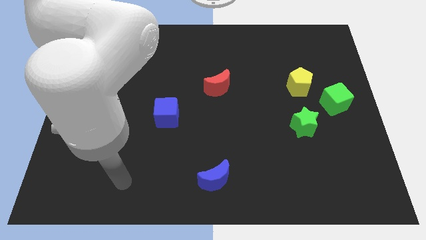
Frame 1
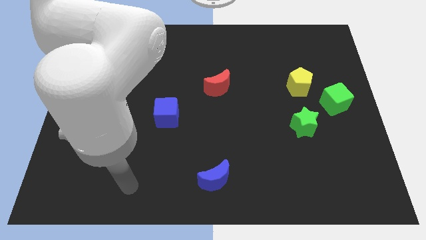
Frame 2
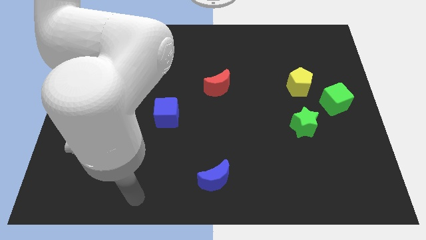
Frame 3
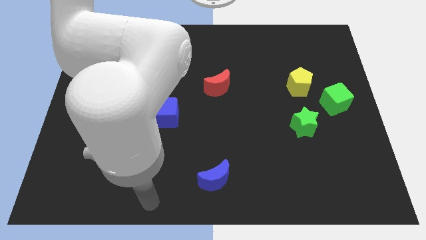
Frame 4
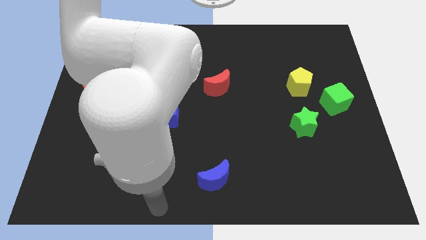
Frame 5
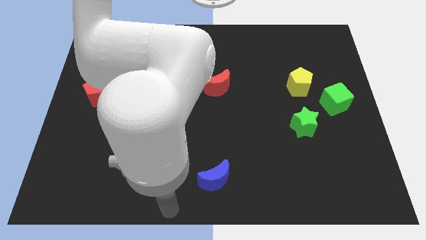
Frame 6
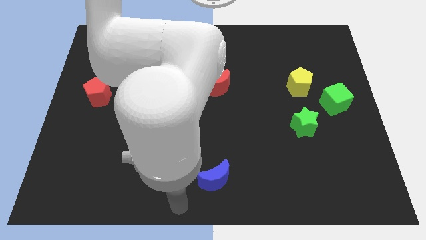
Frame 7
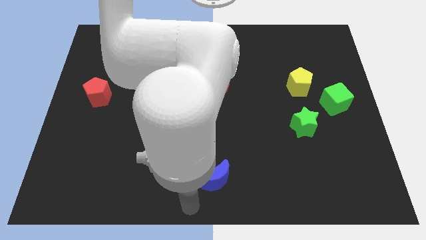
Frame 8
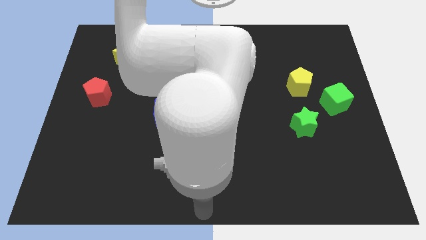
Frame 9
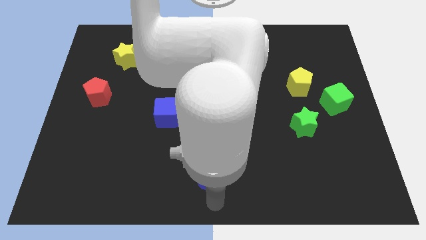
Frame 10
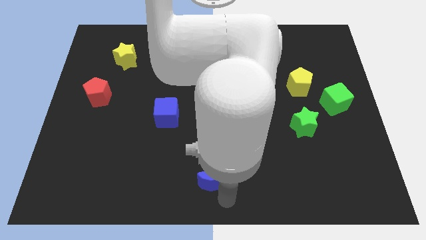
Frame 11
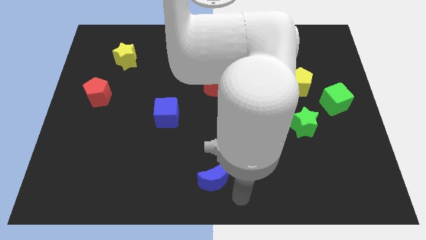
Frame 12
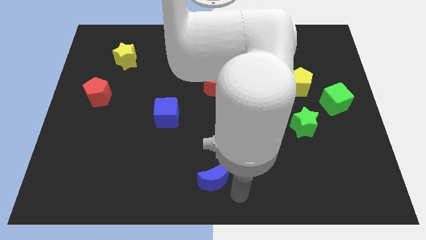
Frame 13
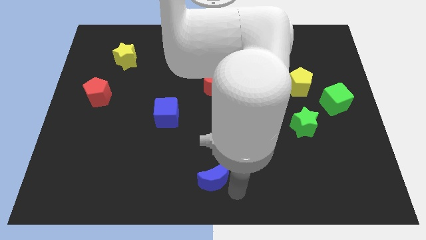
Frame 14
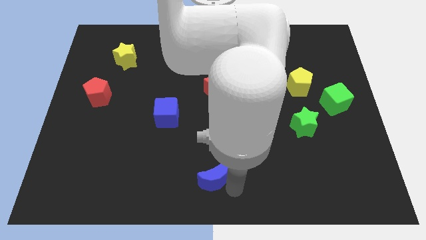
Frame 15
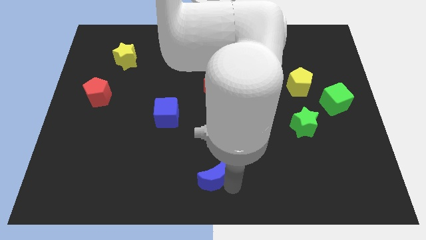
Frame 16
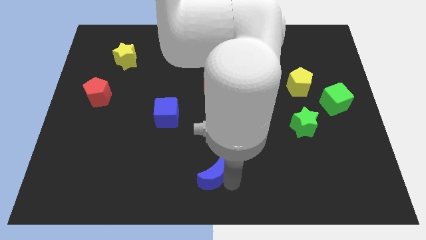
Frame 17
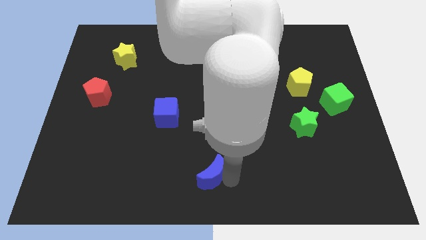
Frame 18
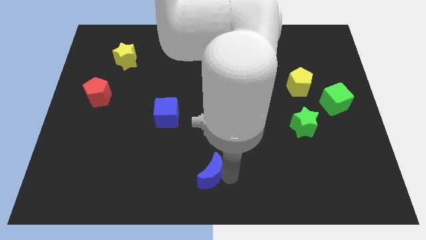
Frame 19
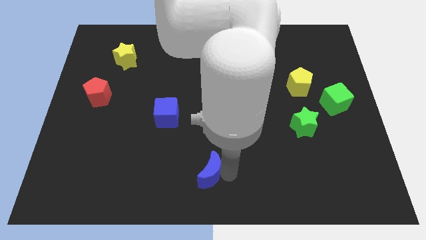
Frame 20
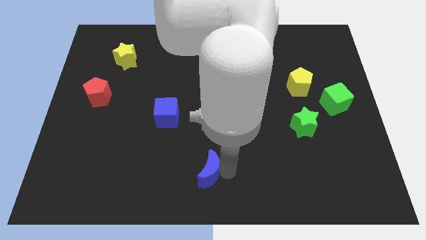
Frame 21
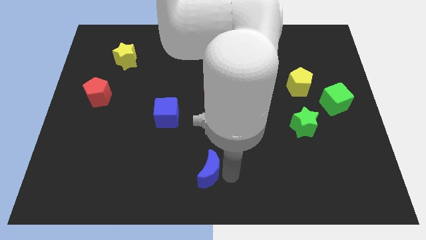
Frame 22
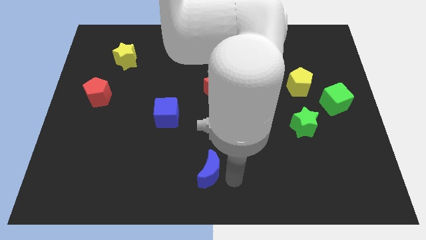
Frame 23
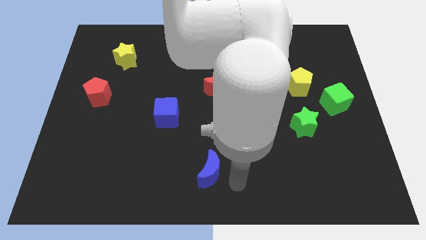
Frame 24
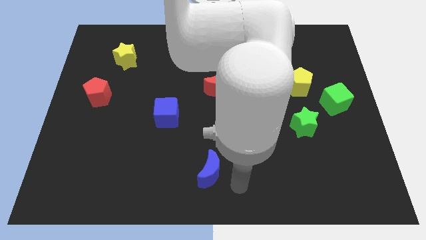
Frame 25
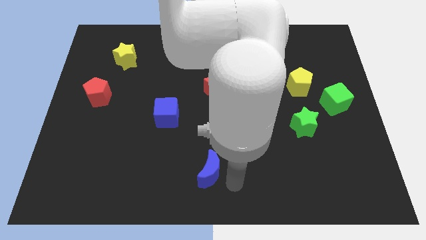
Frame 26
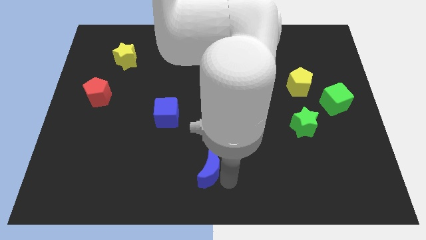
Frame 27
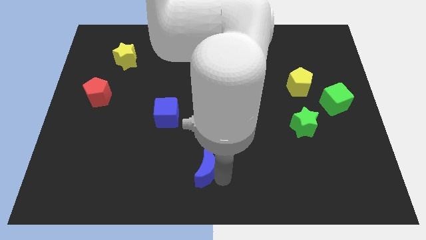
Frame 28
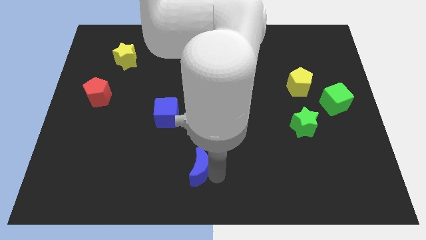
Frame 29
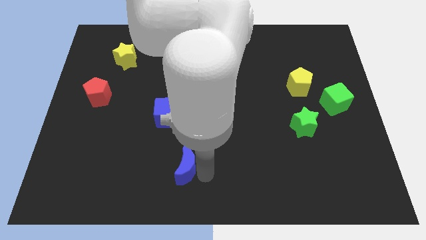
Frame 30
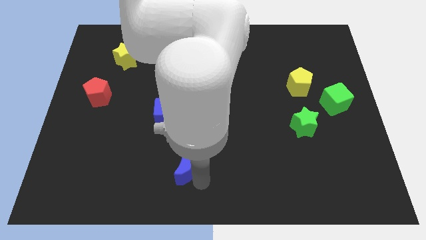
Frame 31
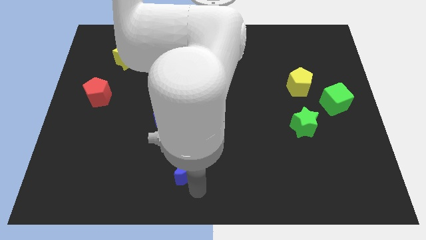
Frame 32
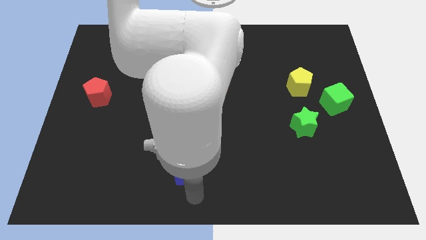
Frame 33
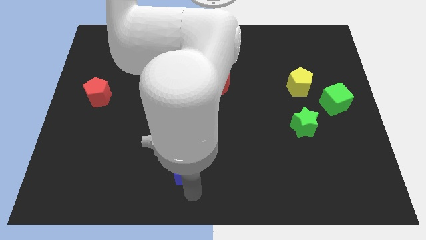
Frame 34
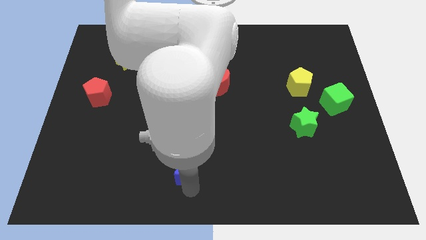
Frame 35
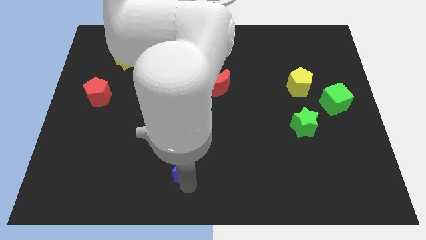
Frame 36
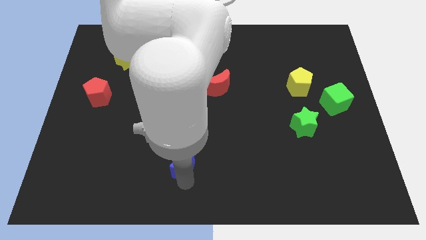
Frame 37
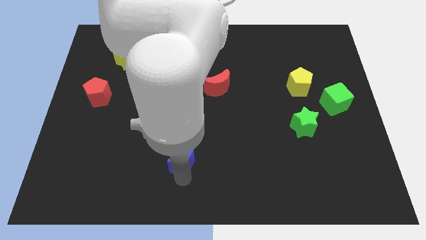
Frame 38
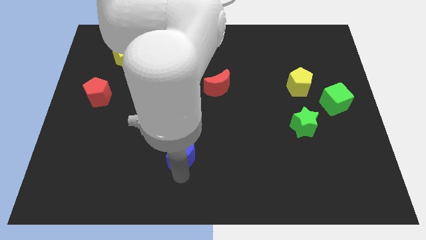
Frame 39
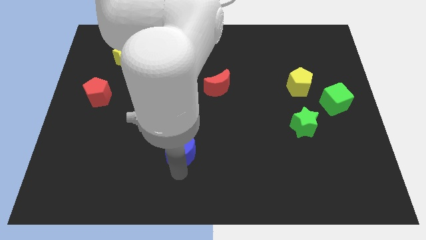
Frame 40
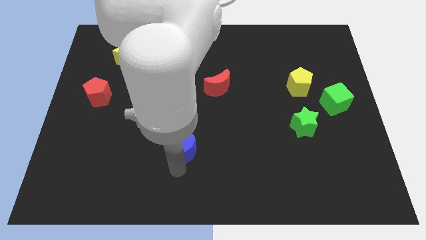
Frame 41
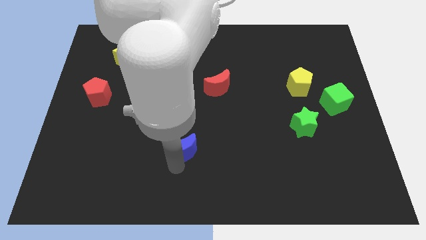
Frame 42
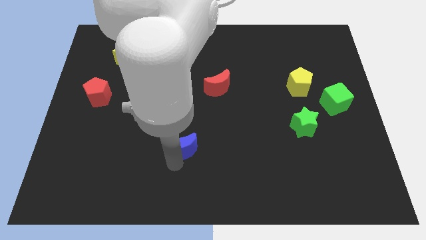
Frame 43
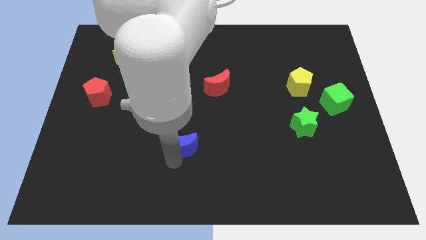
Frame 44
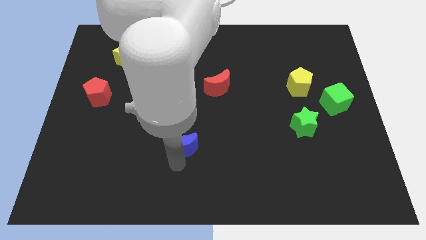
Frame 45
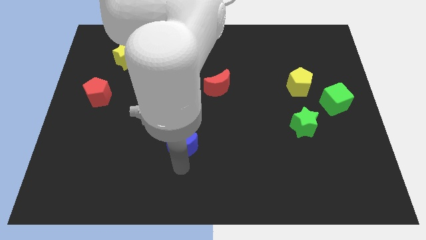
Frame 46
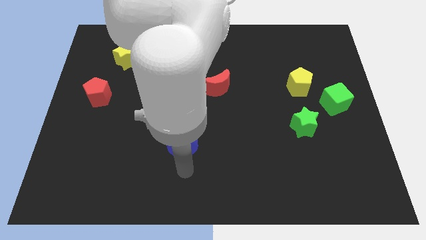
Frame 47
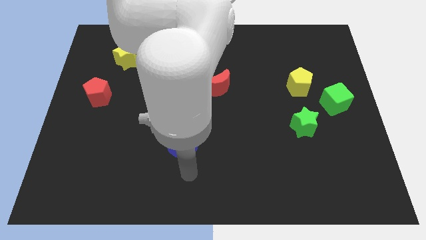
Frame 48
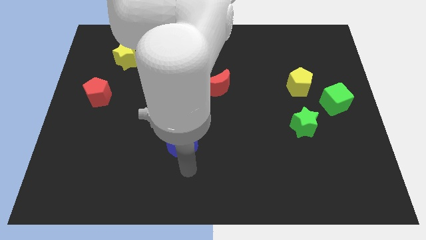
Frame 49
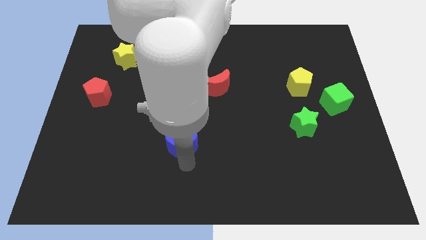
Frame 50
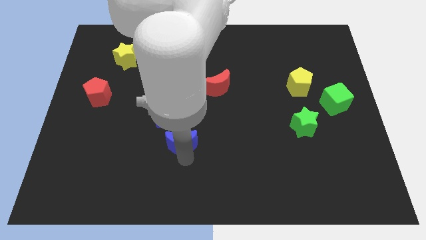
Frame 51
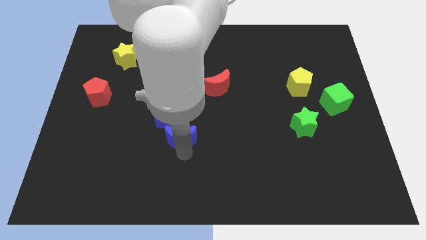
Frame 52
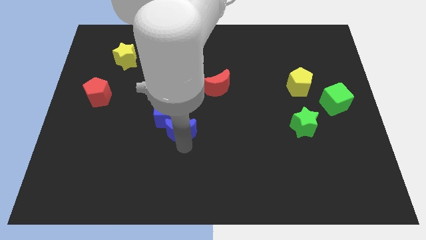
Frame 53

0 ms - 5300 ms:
slide the blue moon close to the blue cube

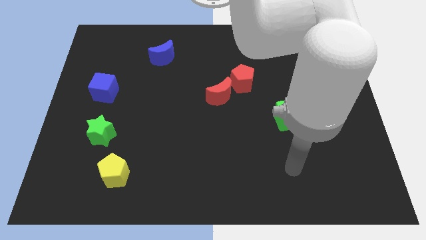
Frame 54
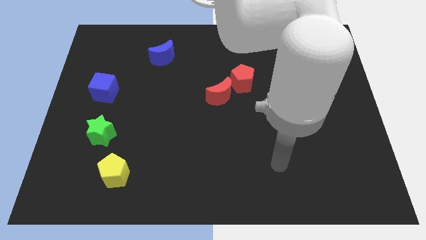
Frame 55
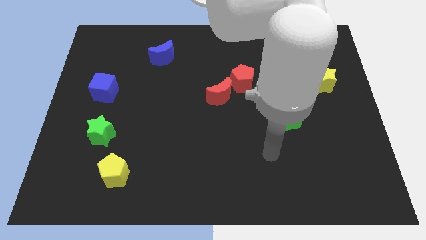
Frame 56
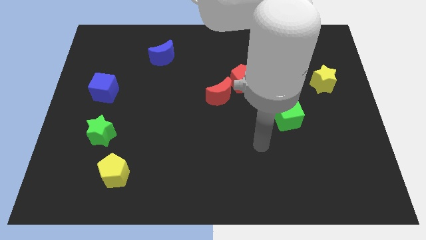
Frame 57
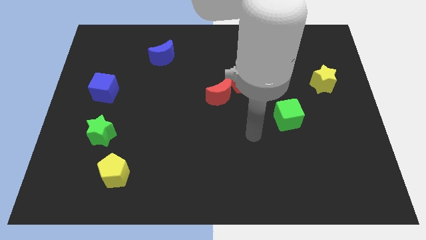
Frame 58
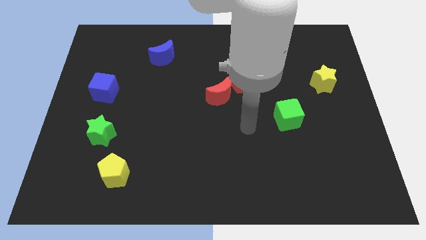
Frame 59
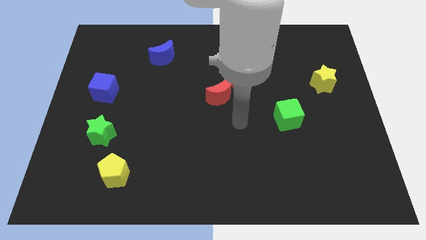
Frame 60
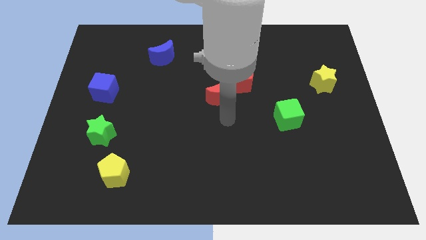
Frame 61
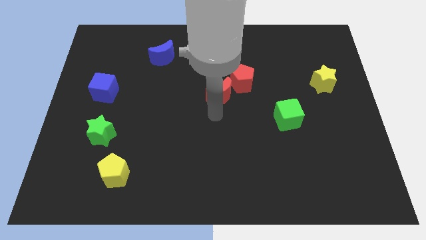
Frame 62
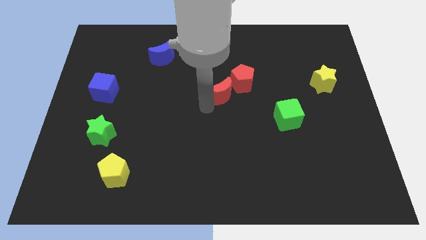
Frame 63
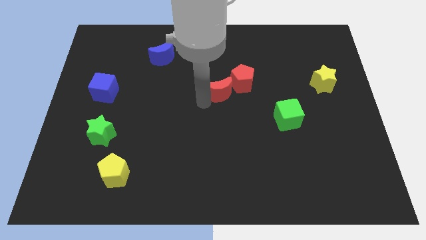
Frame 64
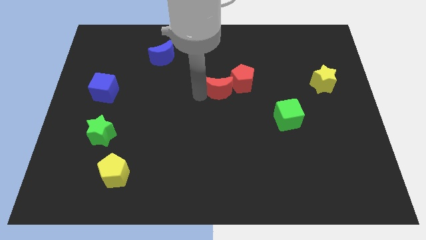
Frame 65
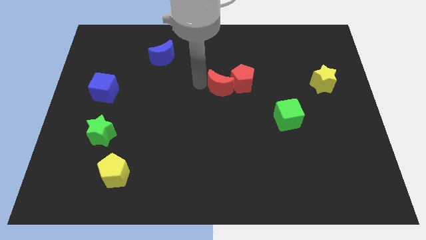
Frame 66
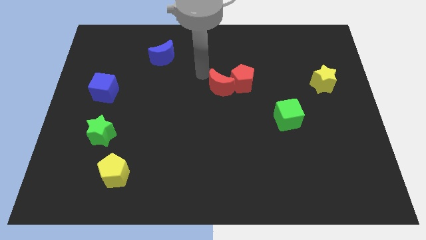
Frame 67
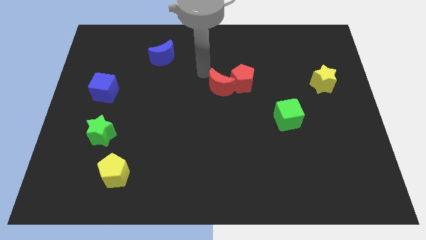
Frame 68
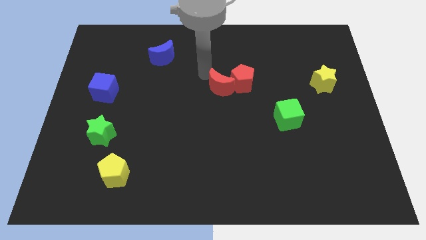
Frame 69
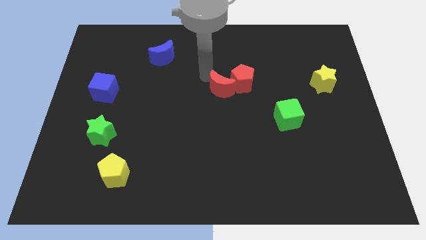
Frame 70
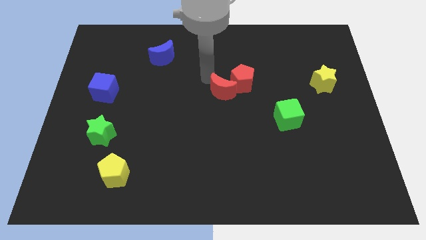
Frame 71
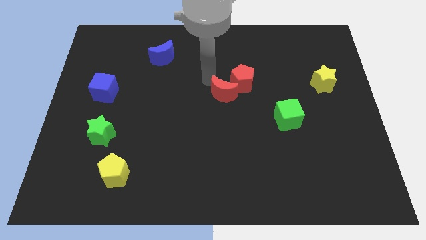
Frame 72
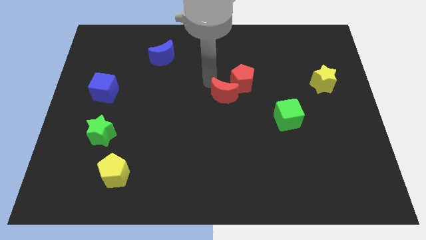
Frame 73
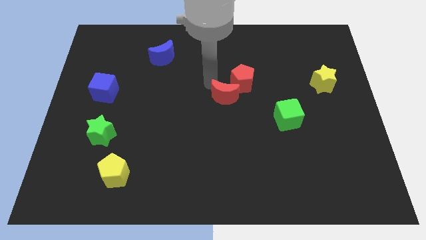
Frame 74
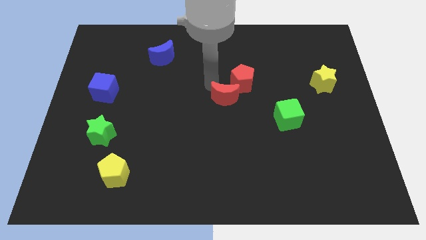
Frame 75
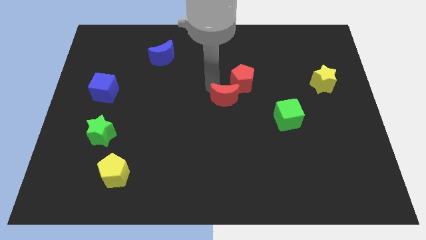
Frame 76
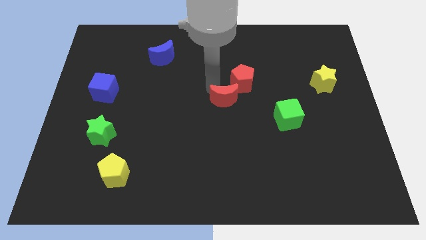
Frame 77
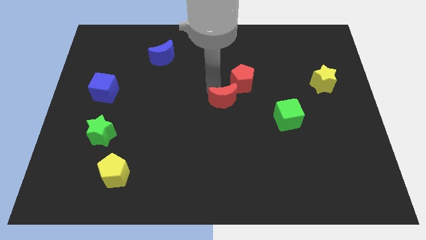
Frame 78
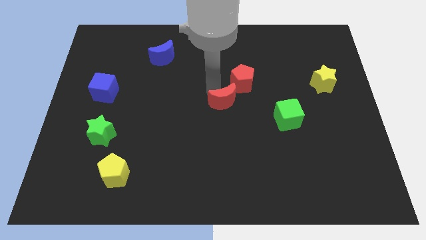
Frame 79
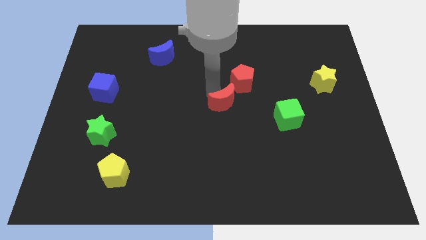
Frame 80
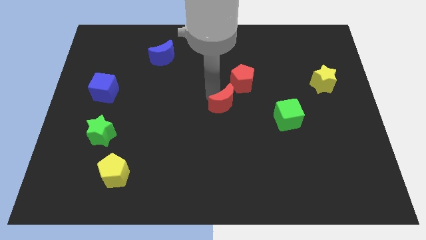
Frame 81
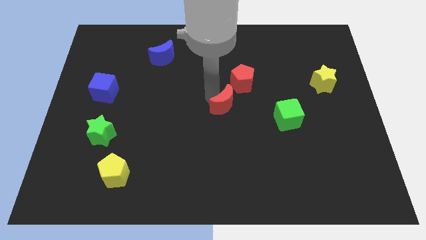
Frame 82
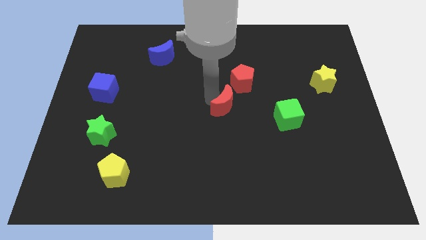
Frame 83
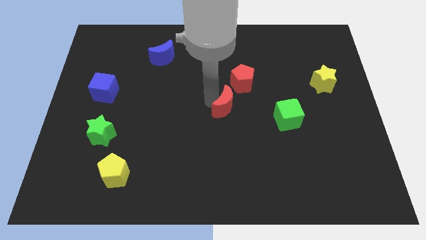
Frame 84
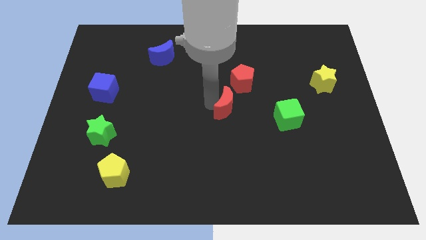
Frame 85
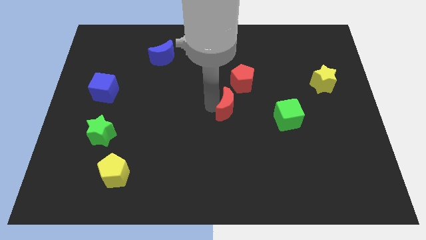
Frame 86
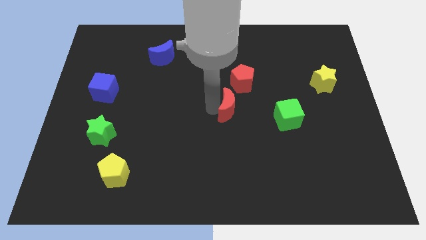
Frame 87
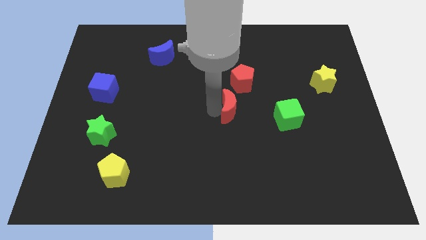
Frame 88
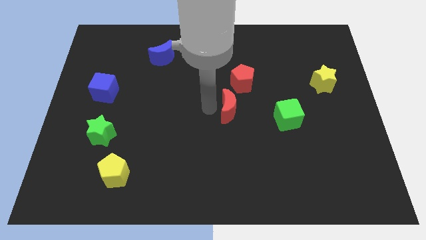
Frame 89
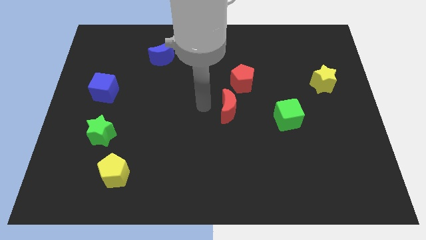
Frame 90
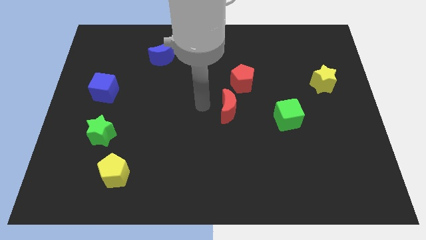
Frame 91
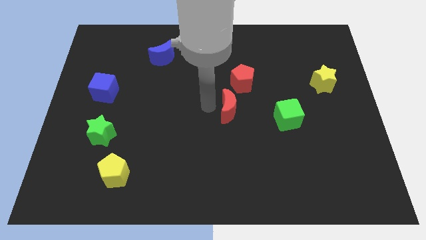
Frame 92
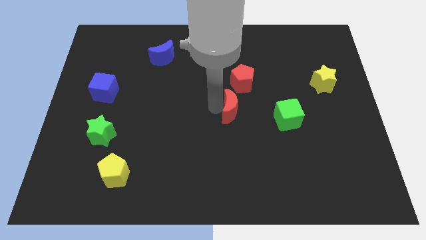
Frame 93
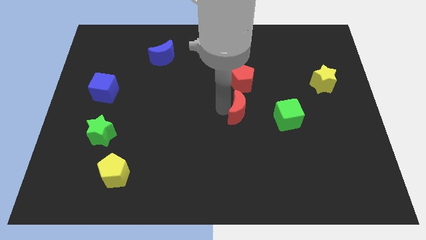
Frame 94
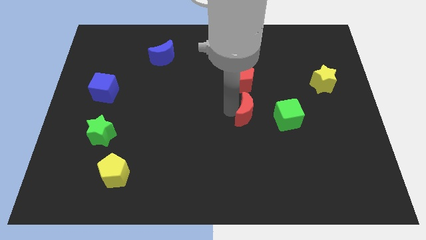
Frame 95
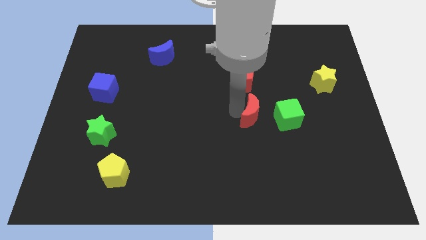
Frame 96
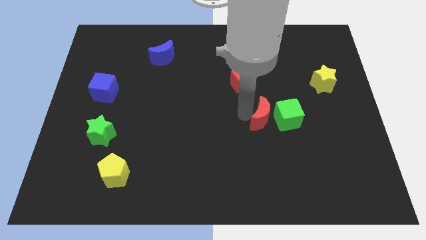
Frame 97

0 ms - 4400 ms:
push the red moon to the green cube
